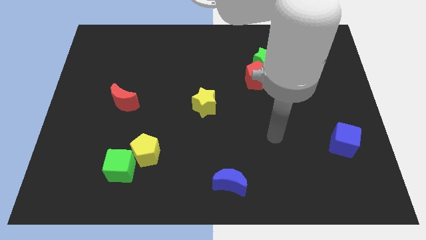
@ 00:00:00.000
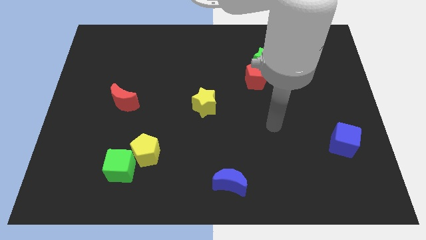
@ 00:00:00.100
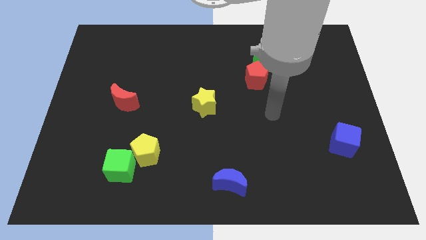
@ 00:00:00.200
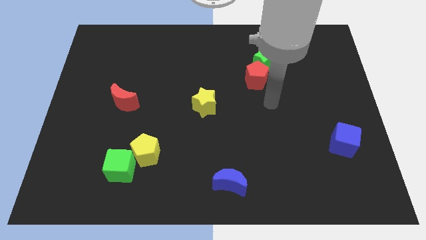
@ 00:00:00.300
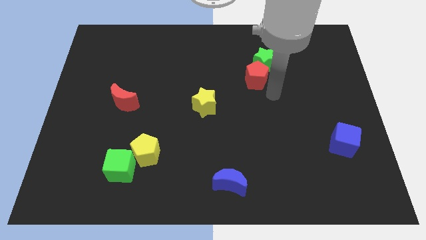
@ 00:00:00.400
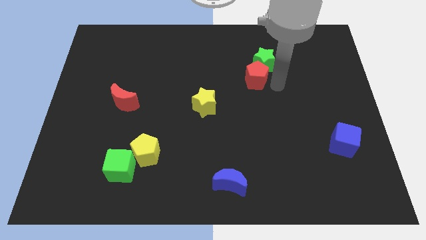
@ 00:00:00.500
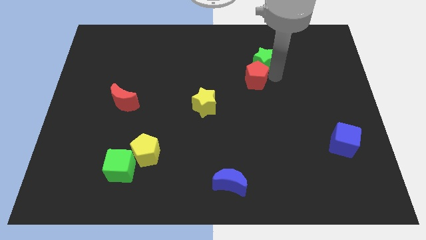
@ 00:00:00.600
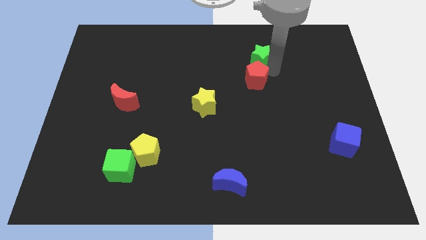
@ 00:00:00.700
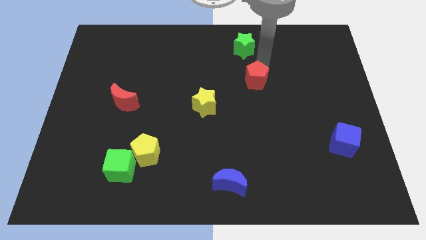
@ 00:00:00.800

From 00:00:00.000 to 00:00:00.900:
separate the red pentagon from the green star

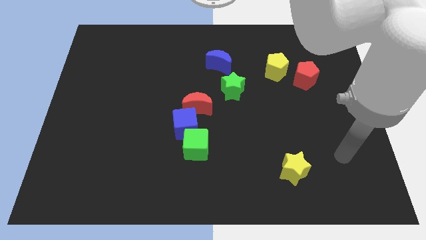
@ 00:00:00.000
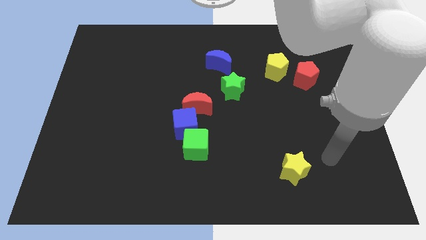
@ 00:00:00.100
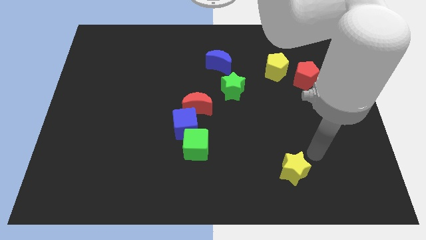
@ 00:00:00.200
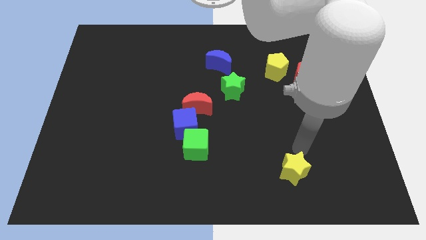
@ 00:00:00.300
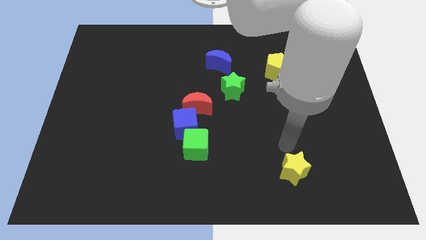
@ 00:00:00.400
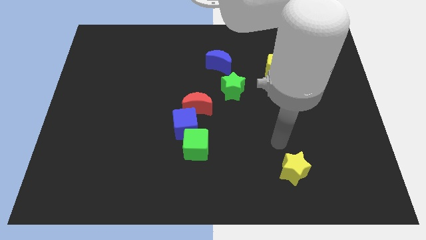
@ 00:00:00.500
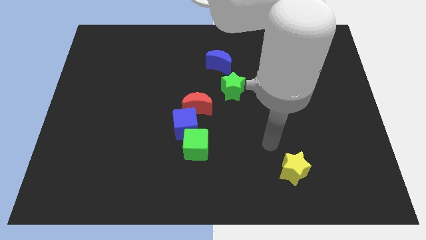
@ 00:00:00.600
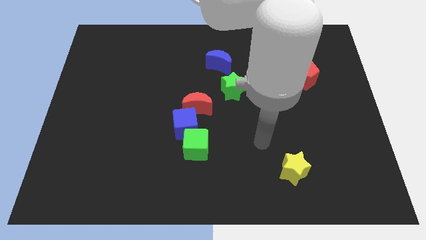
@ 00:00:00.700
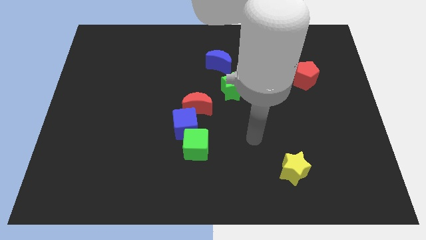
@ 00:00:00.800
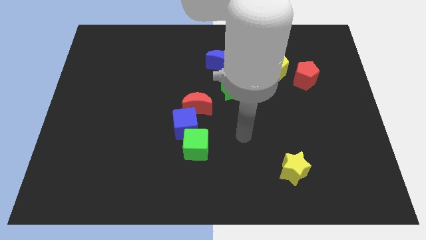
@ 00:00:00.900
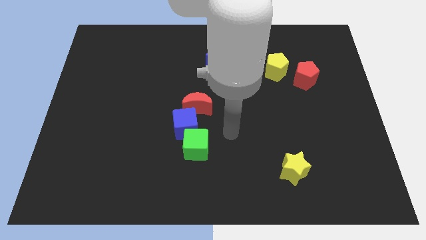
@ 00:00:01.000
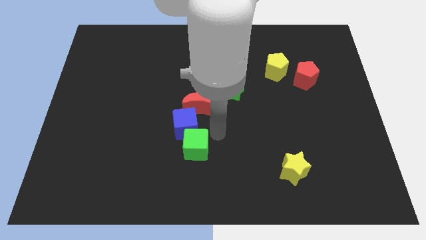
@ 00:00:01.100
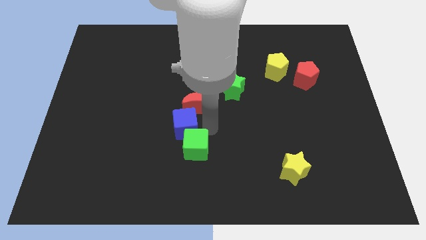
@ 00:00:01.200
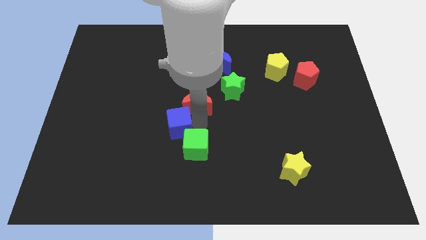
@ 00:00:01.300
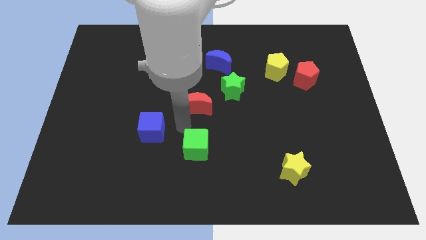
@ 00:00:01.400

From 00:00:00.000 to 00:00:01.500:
move the green cube away from the blue cube

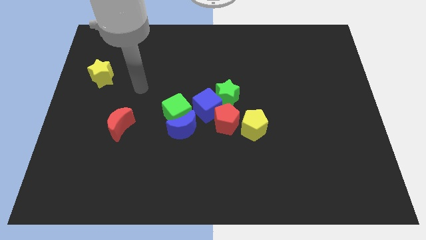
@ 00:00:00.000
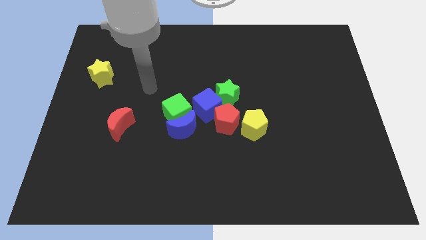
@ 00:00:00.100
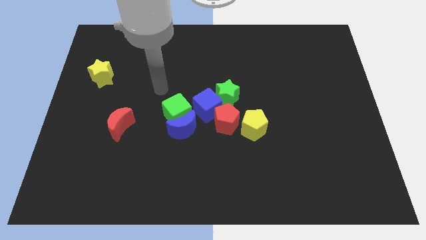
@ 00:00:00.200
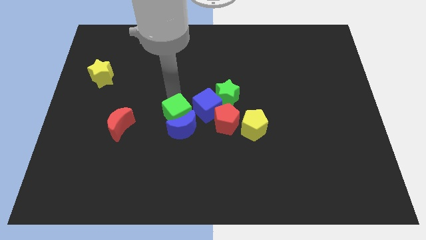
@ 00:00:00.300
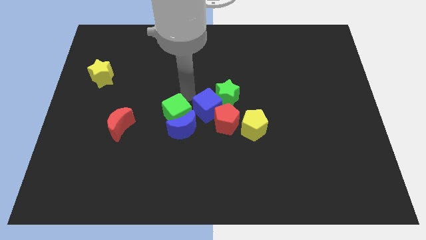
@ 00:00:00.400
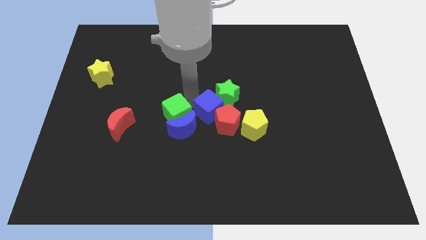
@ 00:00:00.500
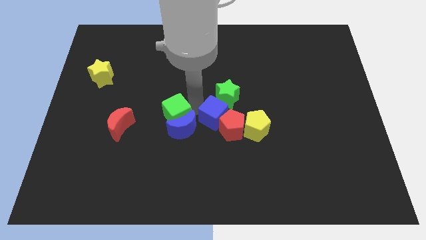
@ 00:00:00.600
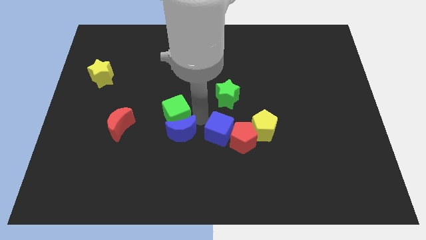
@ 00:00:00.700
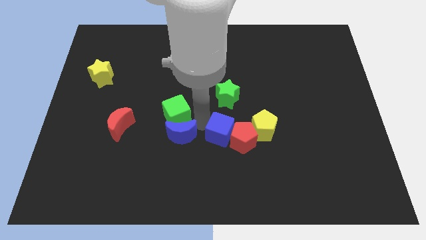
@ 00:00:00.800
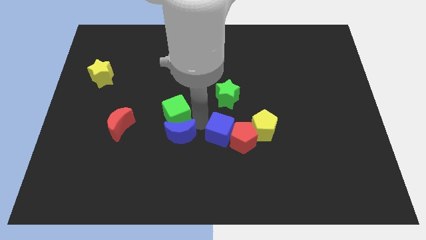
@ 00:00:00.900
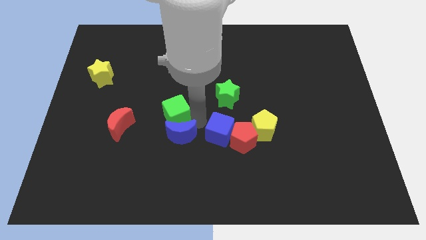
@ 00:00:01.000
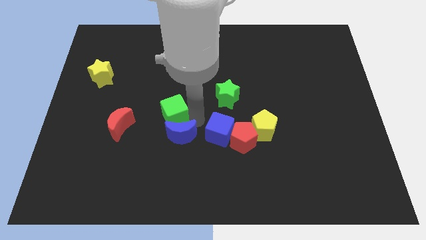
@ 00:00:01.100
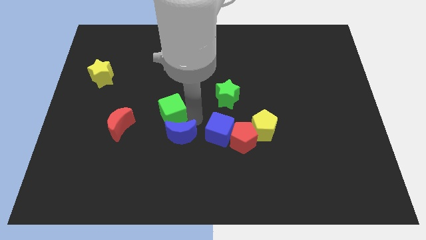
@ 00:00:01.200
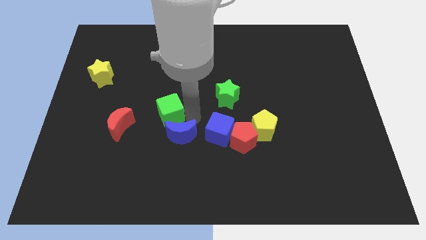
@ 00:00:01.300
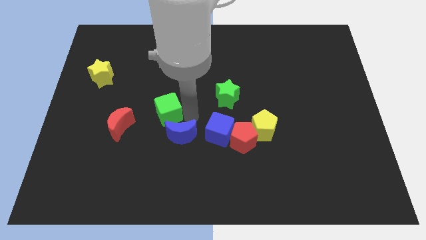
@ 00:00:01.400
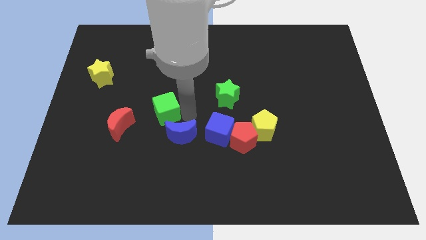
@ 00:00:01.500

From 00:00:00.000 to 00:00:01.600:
pull the green cube apart from the blue moon and blue cube

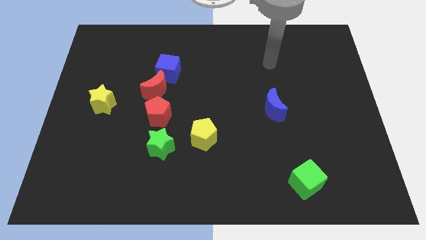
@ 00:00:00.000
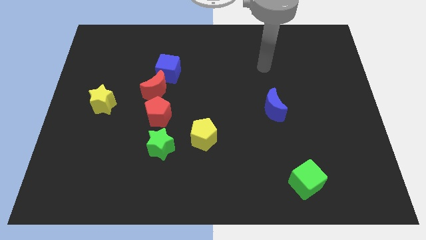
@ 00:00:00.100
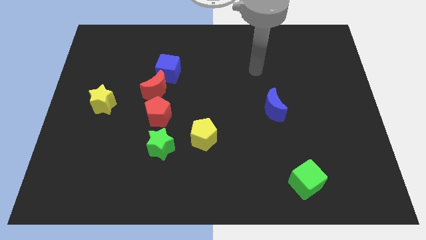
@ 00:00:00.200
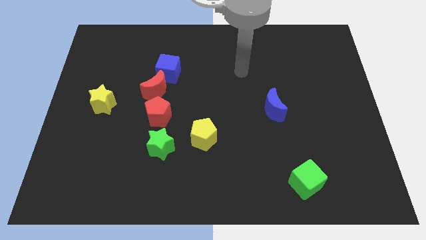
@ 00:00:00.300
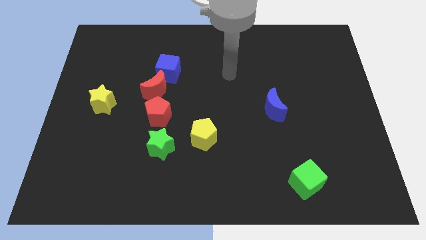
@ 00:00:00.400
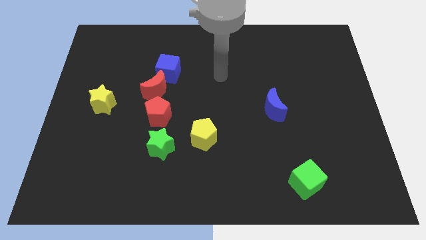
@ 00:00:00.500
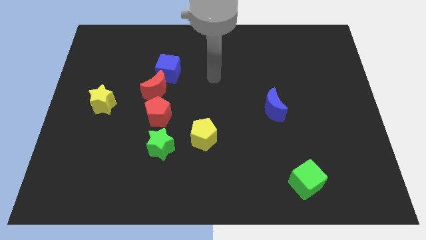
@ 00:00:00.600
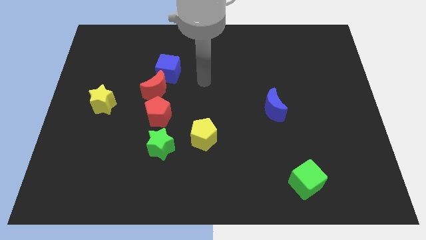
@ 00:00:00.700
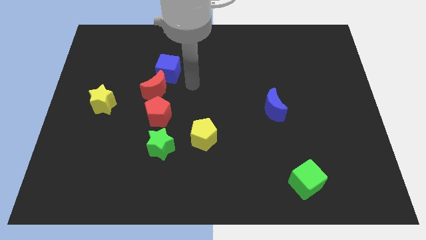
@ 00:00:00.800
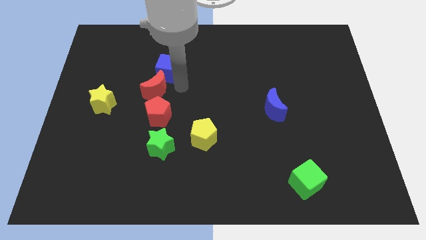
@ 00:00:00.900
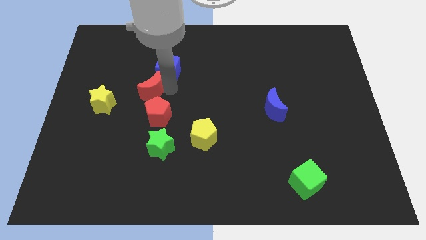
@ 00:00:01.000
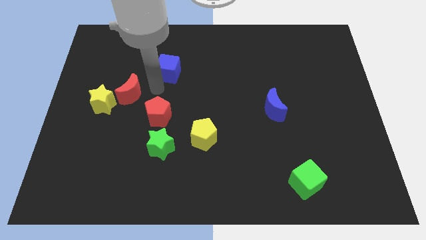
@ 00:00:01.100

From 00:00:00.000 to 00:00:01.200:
pull the blue cube apart from the red moon

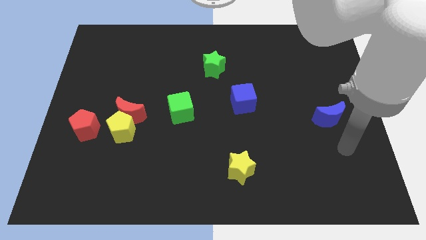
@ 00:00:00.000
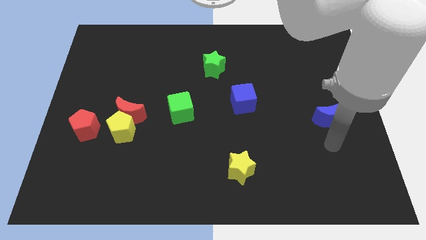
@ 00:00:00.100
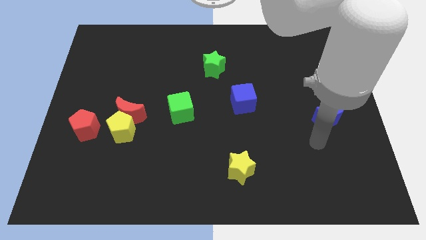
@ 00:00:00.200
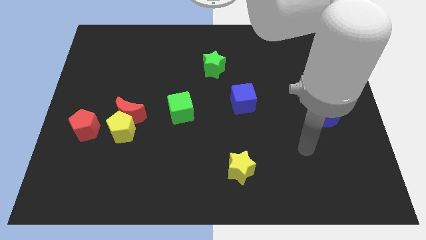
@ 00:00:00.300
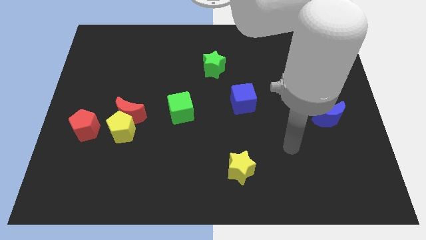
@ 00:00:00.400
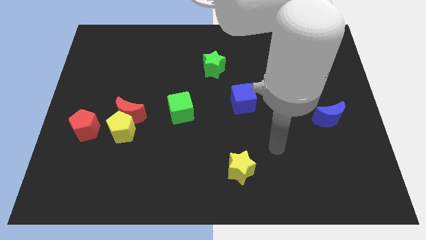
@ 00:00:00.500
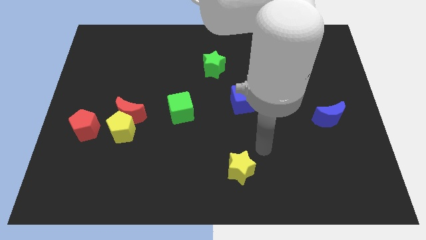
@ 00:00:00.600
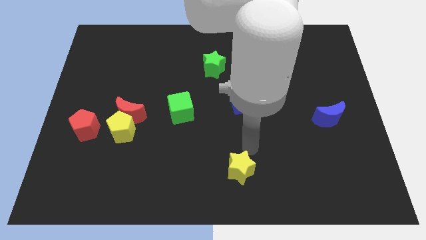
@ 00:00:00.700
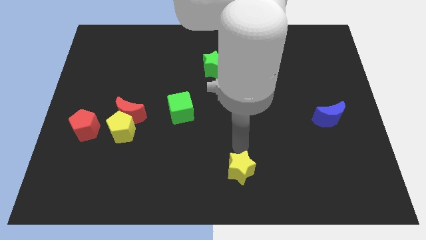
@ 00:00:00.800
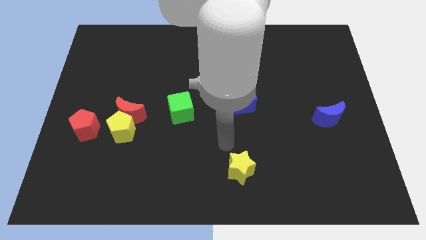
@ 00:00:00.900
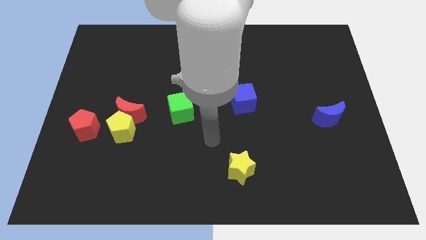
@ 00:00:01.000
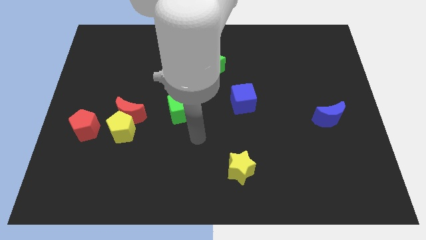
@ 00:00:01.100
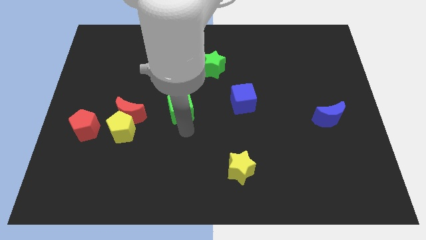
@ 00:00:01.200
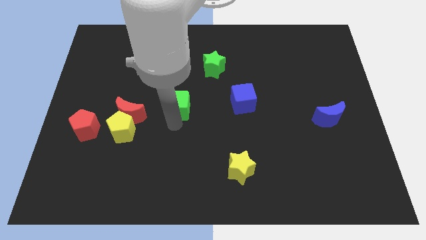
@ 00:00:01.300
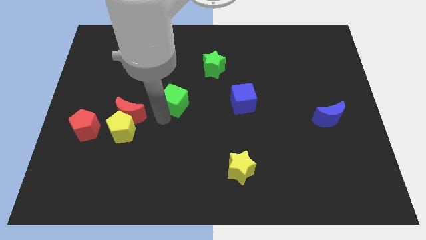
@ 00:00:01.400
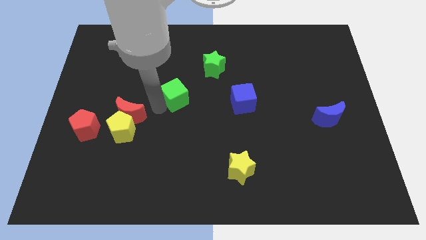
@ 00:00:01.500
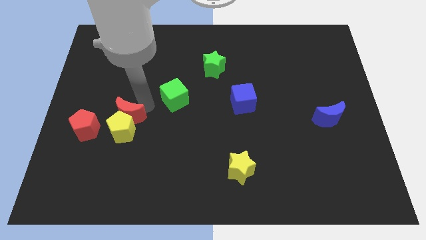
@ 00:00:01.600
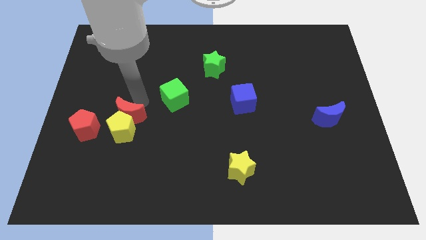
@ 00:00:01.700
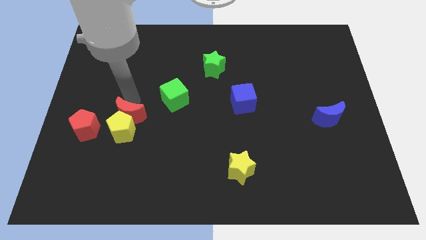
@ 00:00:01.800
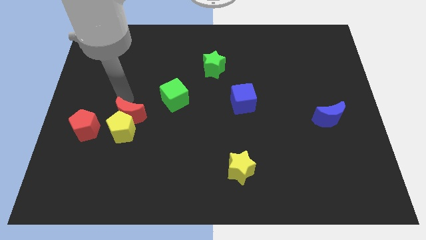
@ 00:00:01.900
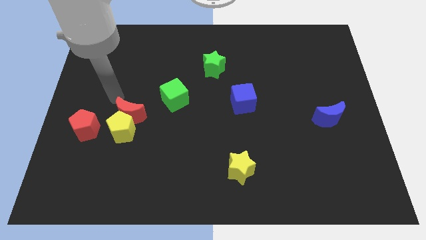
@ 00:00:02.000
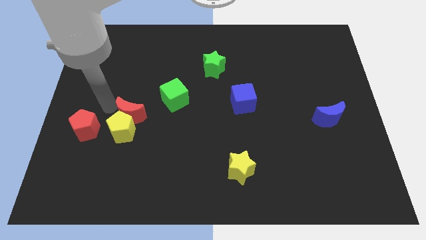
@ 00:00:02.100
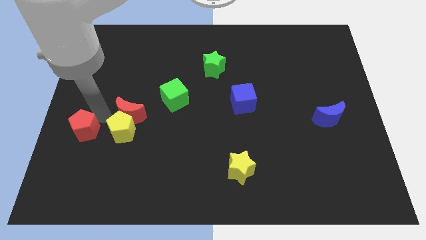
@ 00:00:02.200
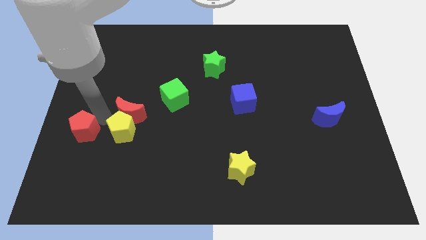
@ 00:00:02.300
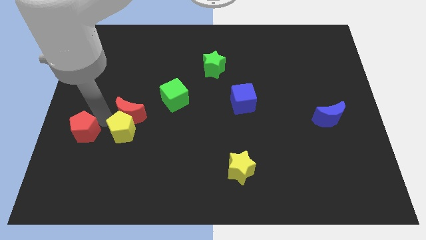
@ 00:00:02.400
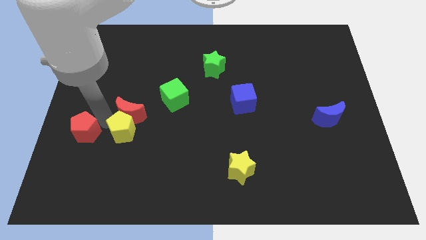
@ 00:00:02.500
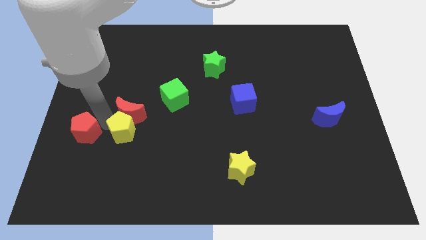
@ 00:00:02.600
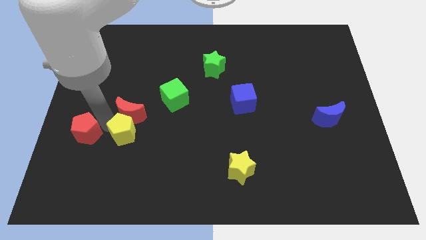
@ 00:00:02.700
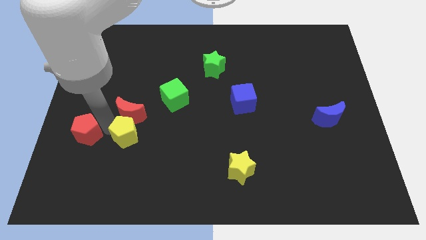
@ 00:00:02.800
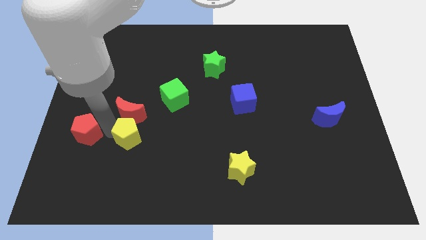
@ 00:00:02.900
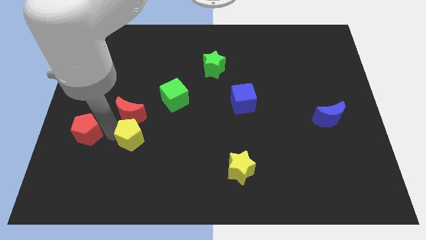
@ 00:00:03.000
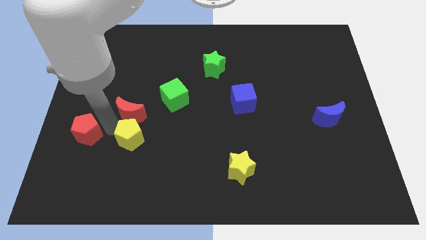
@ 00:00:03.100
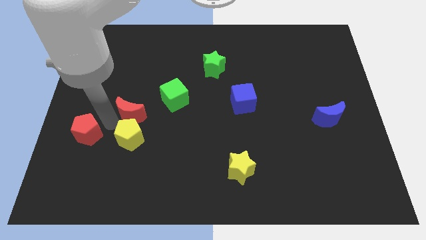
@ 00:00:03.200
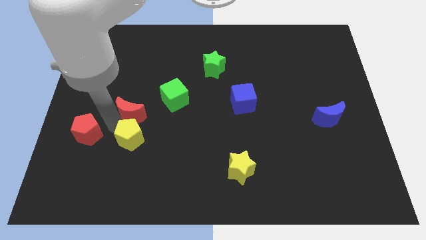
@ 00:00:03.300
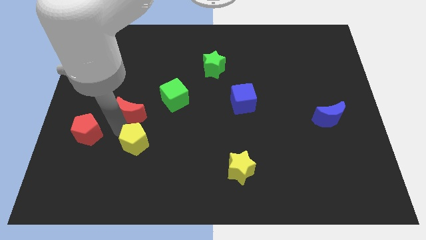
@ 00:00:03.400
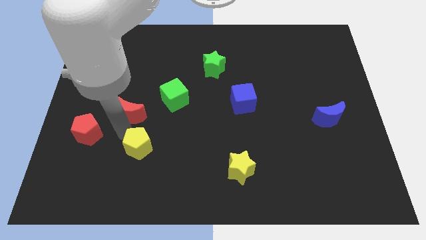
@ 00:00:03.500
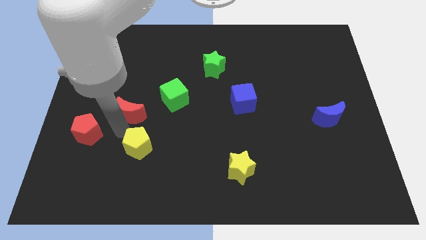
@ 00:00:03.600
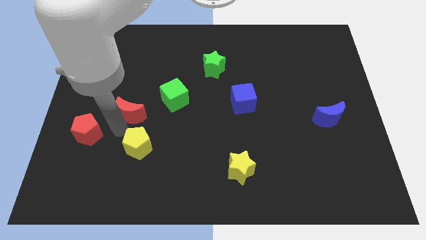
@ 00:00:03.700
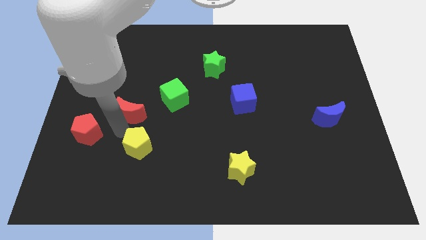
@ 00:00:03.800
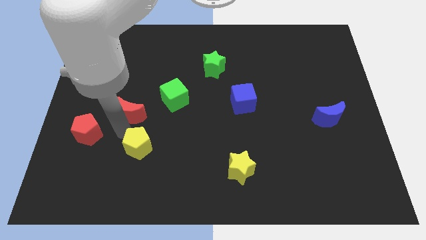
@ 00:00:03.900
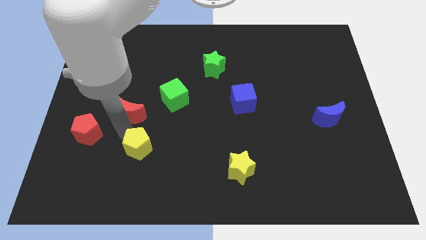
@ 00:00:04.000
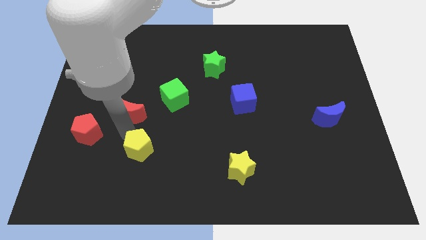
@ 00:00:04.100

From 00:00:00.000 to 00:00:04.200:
separate the yellow pentagon from the red moon and red pentagon
